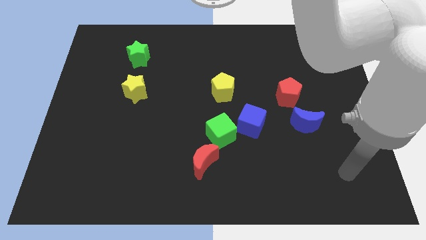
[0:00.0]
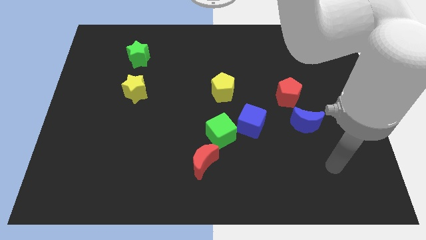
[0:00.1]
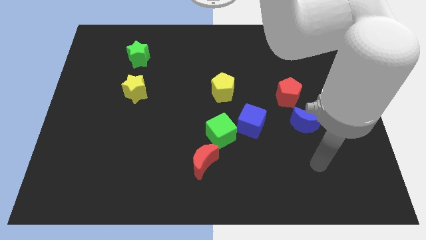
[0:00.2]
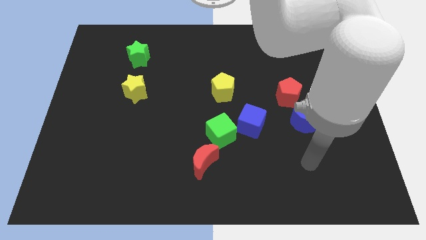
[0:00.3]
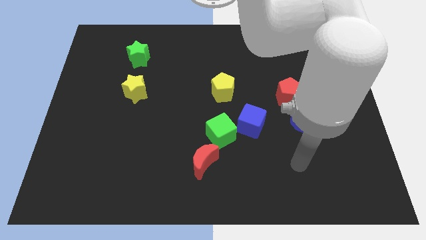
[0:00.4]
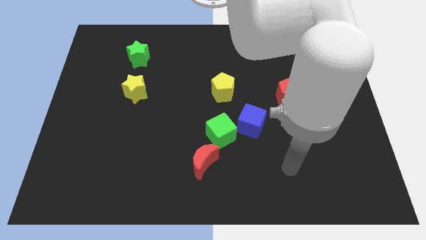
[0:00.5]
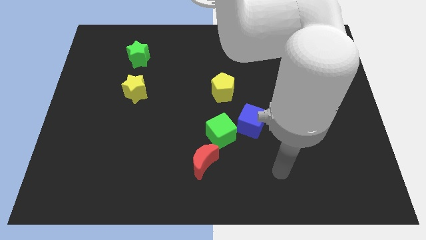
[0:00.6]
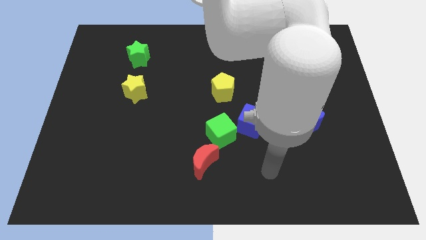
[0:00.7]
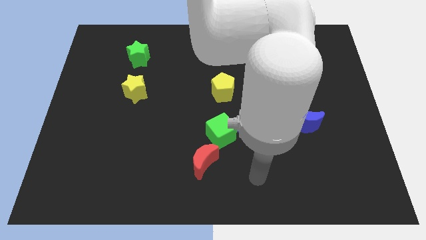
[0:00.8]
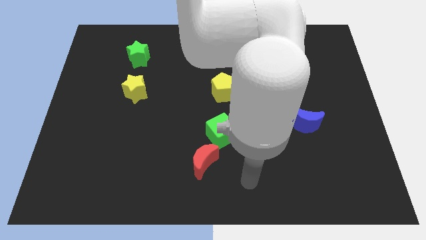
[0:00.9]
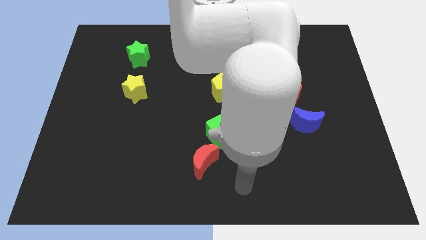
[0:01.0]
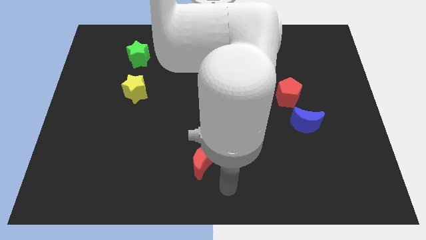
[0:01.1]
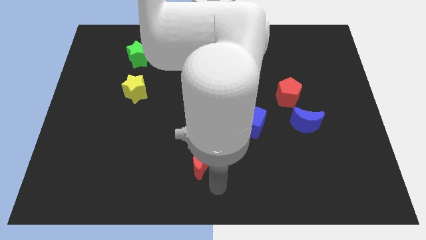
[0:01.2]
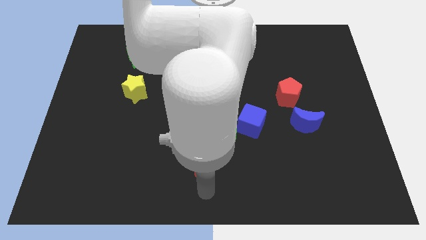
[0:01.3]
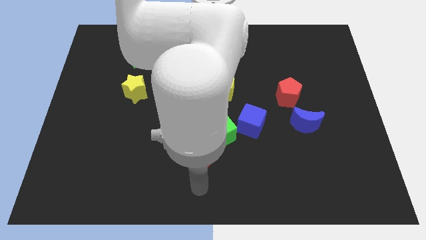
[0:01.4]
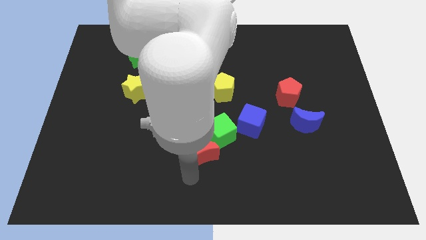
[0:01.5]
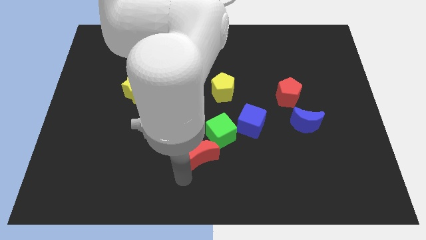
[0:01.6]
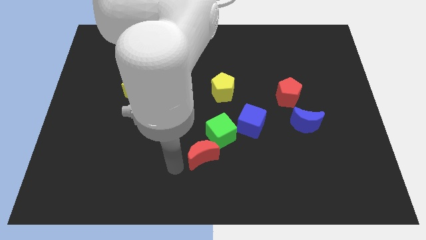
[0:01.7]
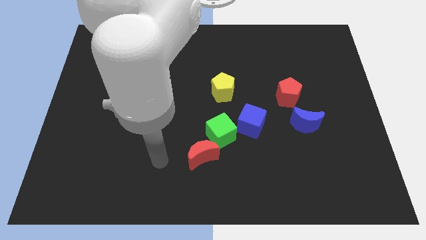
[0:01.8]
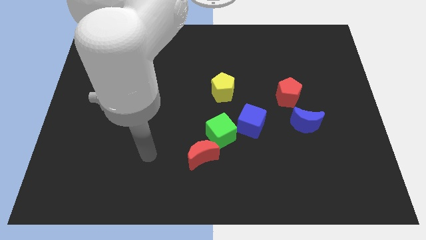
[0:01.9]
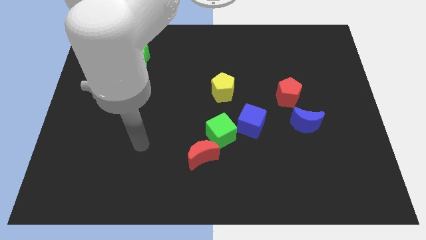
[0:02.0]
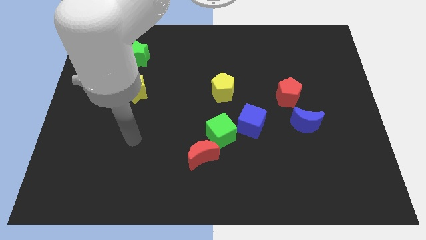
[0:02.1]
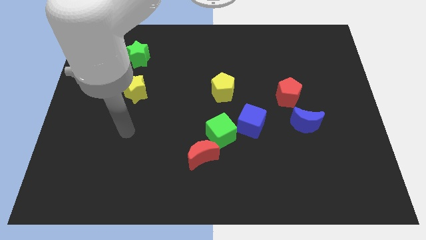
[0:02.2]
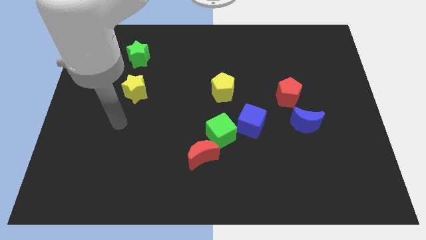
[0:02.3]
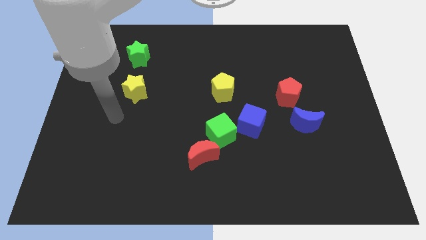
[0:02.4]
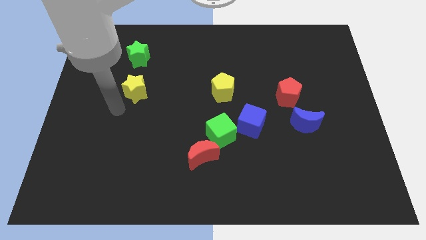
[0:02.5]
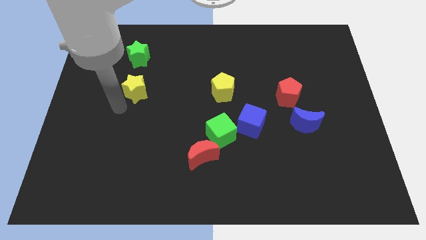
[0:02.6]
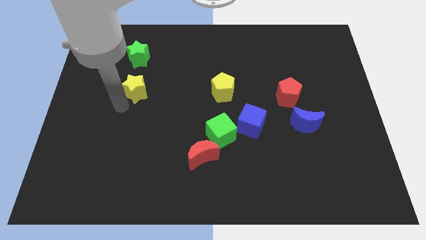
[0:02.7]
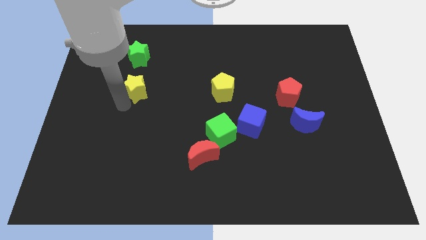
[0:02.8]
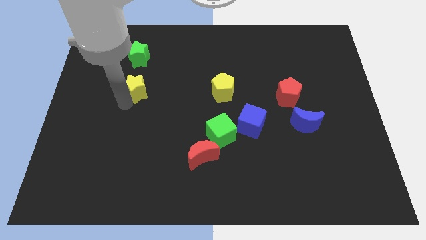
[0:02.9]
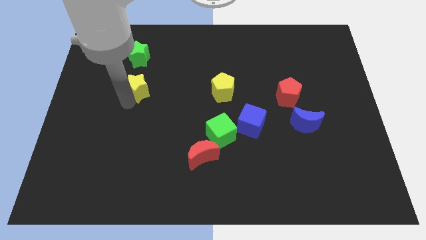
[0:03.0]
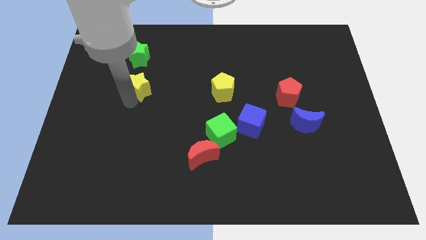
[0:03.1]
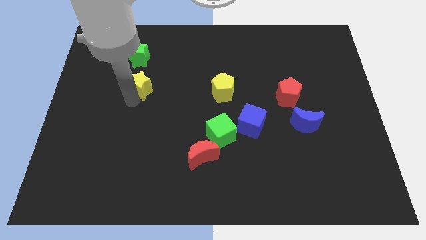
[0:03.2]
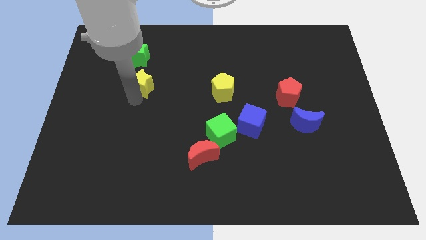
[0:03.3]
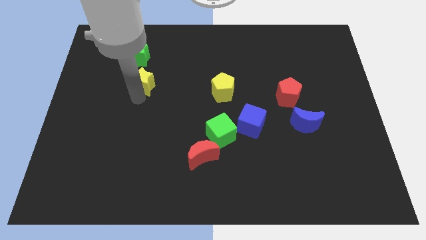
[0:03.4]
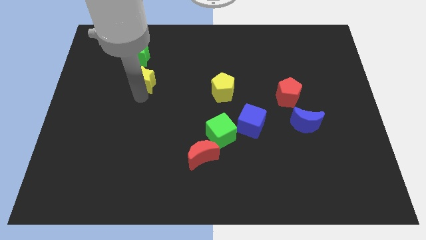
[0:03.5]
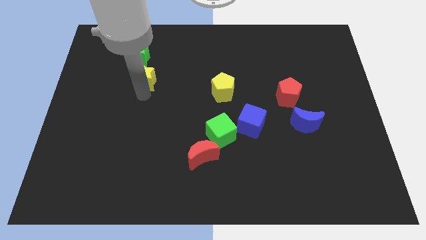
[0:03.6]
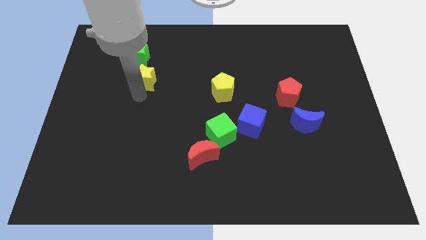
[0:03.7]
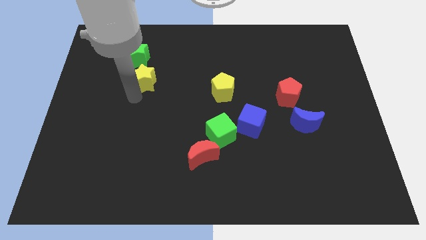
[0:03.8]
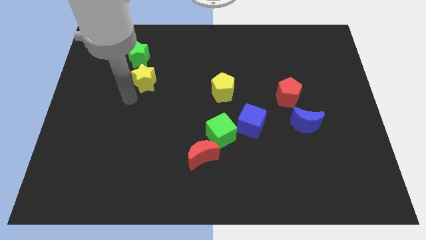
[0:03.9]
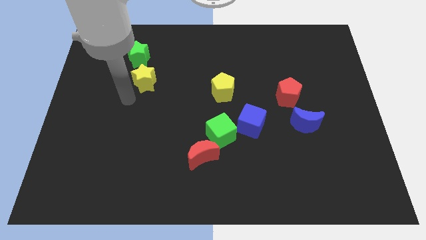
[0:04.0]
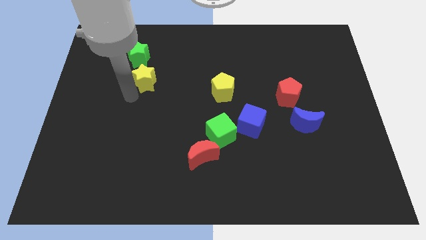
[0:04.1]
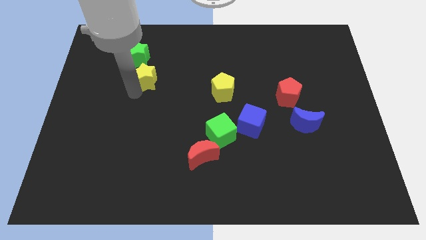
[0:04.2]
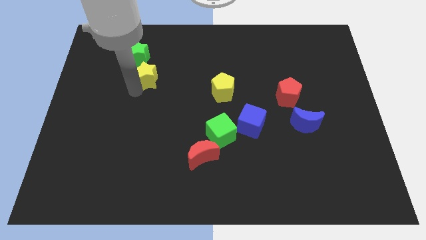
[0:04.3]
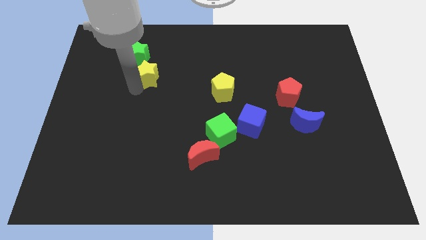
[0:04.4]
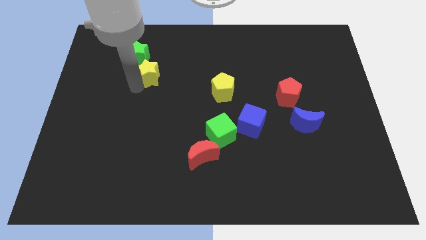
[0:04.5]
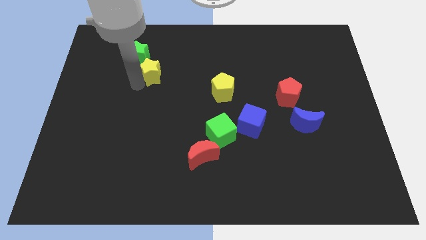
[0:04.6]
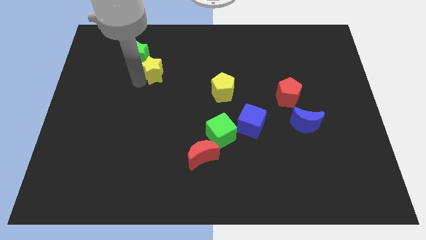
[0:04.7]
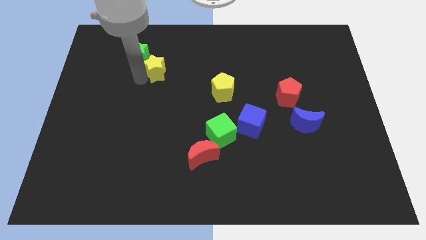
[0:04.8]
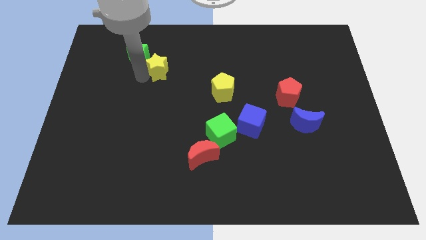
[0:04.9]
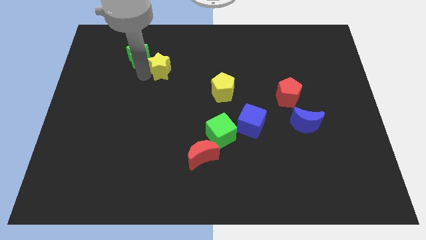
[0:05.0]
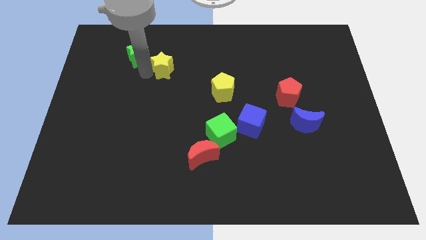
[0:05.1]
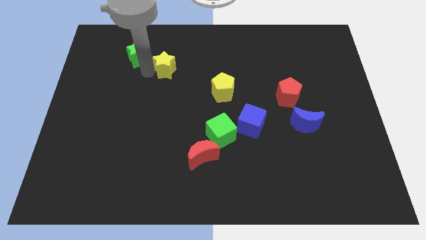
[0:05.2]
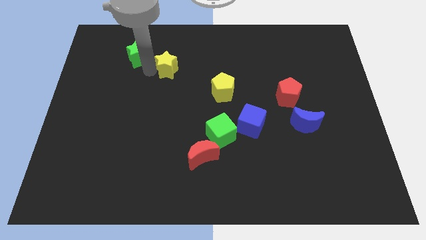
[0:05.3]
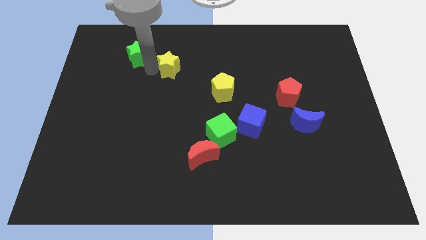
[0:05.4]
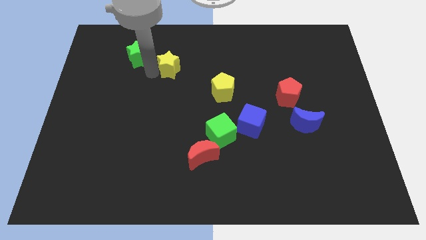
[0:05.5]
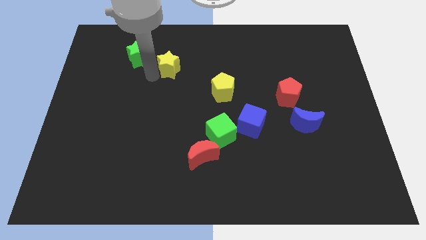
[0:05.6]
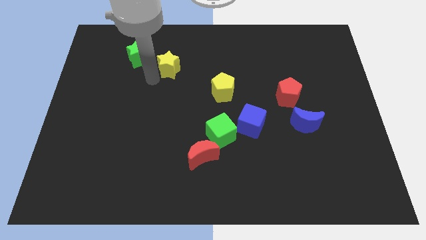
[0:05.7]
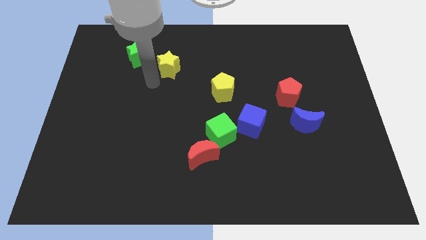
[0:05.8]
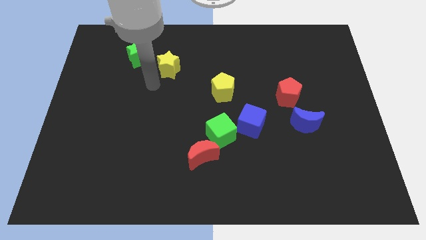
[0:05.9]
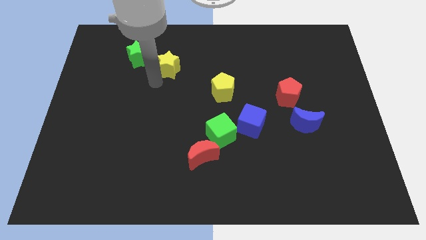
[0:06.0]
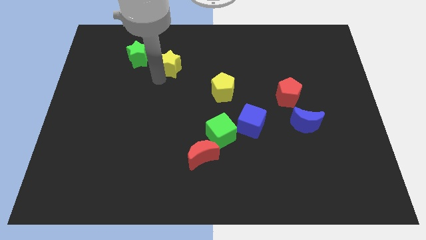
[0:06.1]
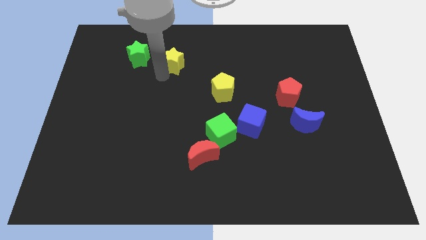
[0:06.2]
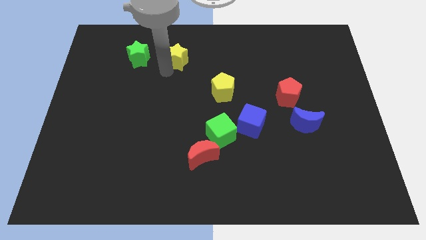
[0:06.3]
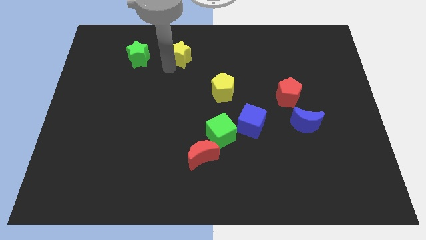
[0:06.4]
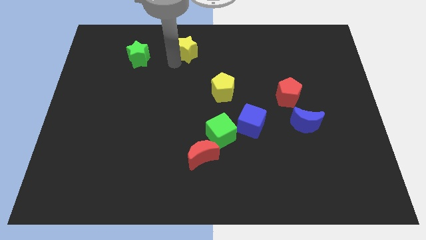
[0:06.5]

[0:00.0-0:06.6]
move the yellow star to the towards your base

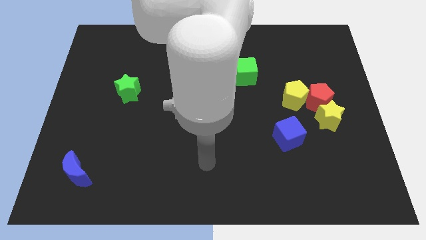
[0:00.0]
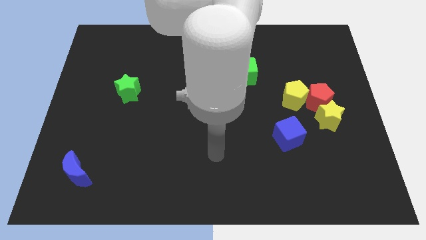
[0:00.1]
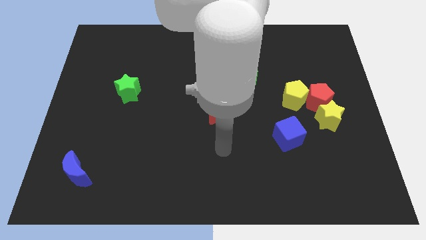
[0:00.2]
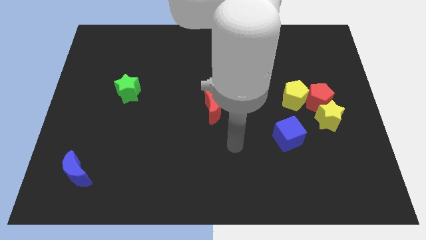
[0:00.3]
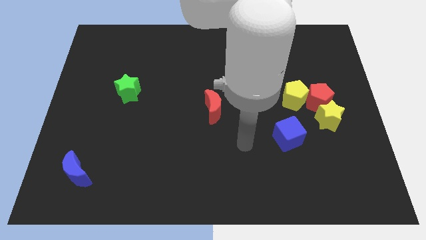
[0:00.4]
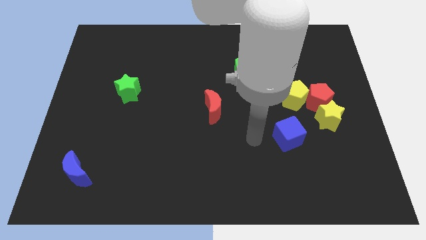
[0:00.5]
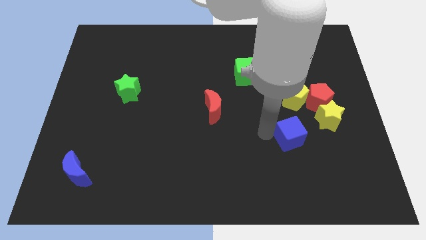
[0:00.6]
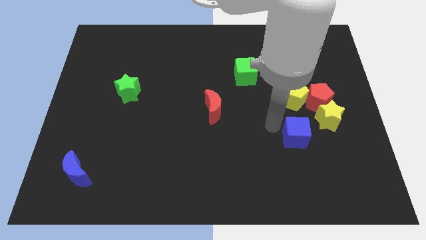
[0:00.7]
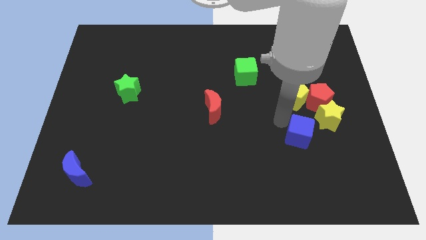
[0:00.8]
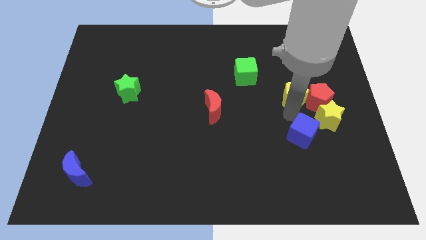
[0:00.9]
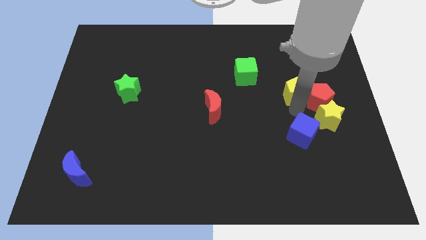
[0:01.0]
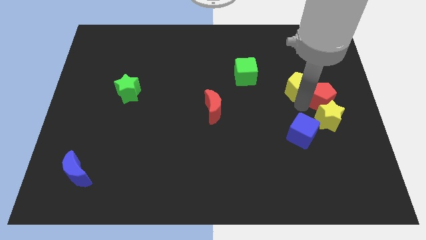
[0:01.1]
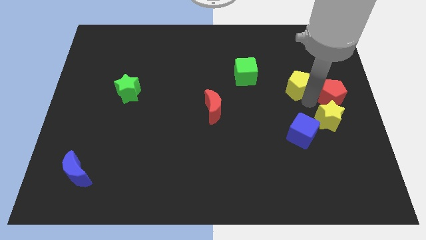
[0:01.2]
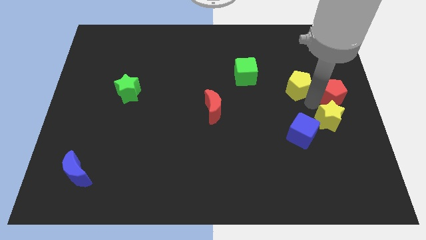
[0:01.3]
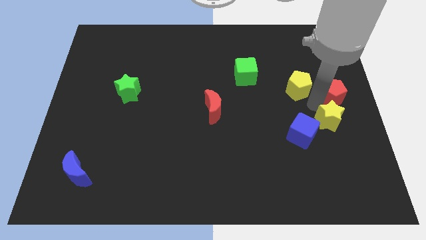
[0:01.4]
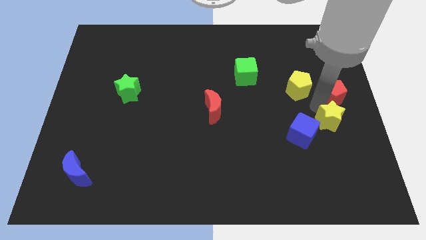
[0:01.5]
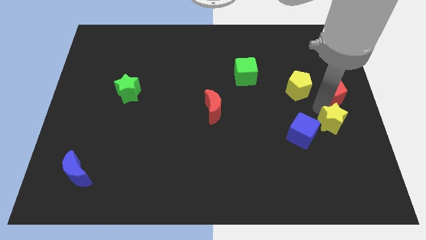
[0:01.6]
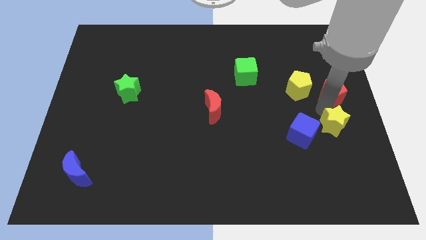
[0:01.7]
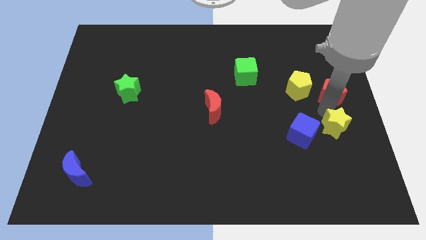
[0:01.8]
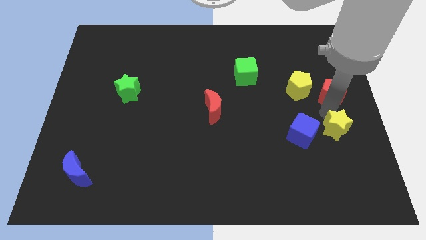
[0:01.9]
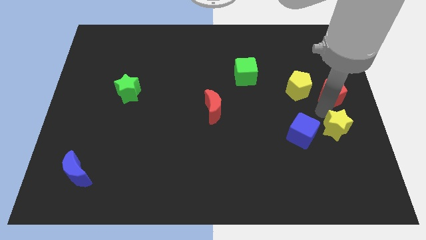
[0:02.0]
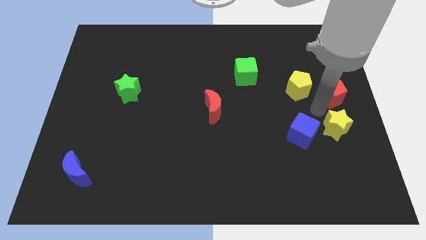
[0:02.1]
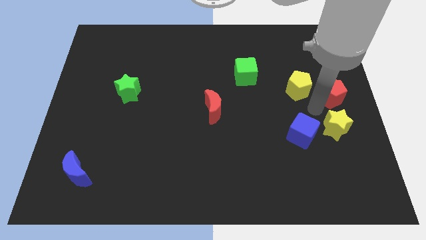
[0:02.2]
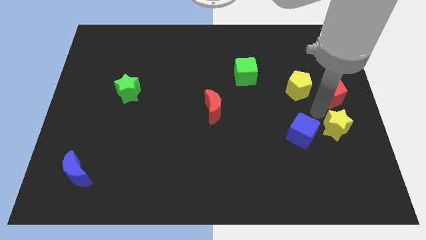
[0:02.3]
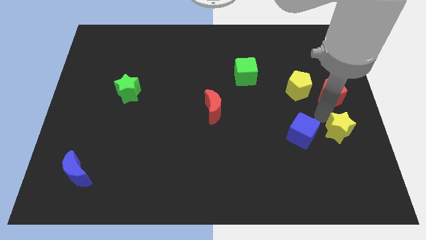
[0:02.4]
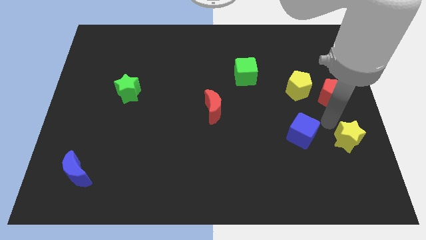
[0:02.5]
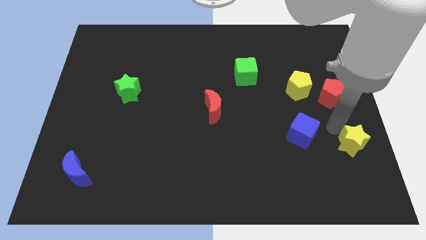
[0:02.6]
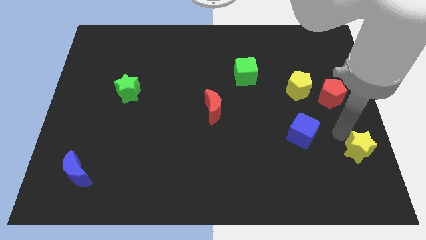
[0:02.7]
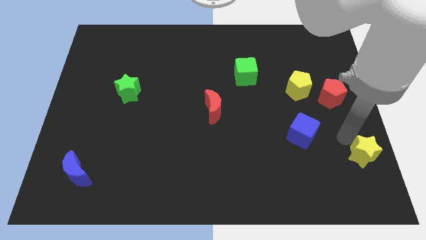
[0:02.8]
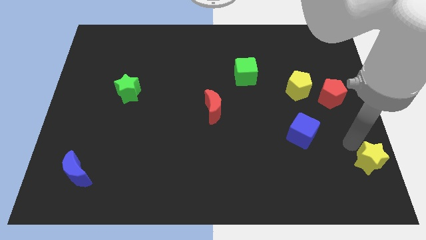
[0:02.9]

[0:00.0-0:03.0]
push the yellow star to the bottom right of the board
